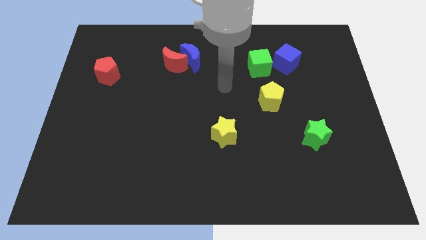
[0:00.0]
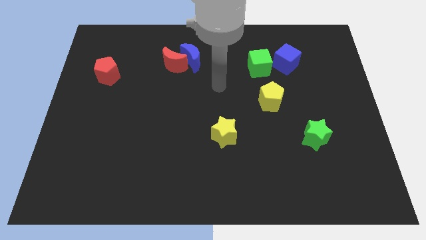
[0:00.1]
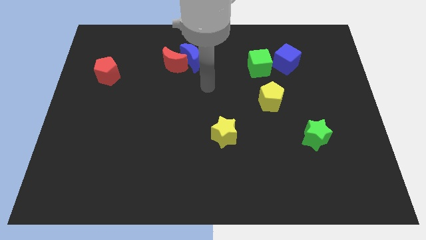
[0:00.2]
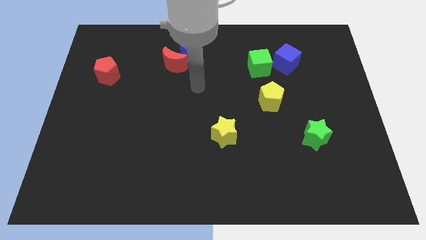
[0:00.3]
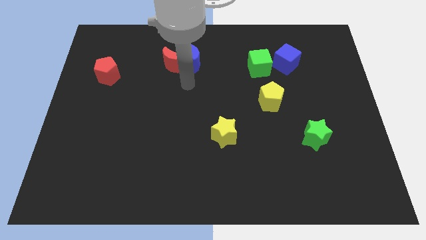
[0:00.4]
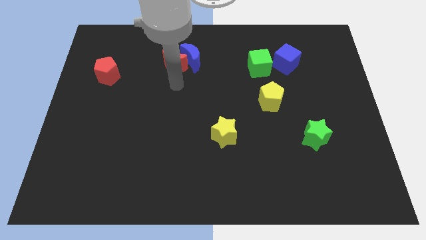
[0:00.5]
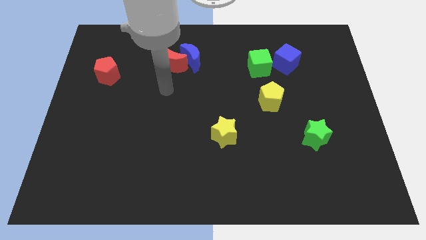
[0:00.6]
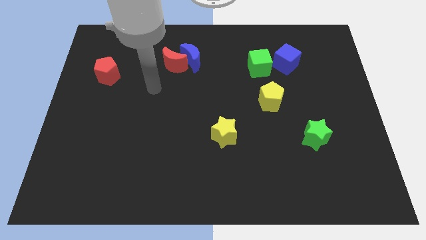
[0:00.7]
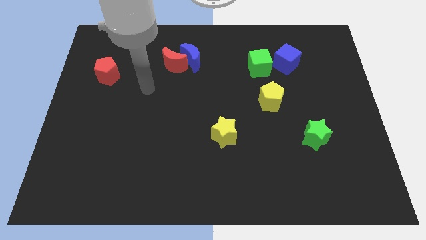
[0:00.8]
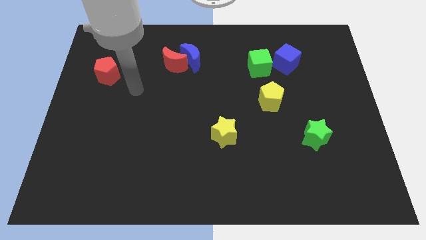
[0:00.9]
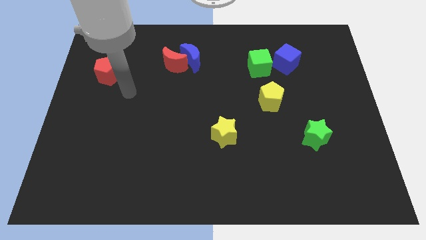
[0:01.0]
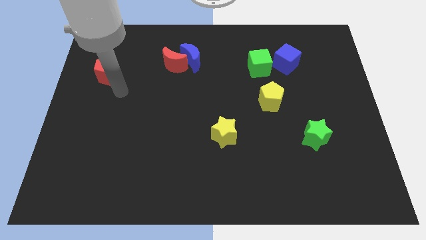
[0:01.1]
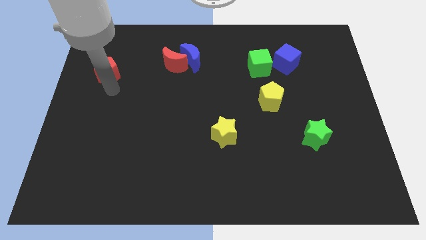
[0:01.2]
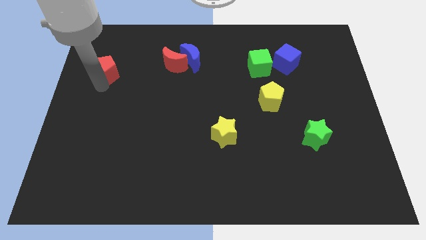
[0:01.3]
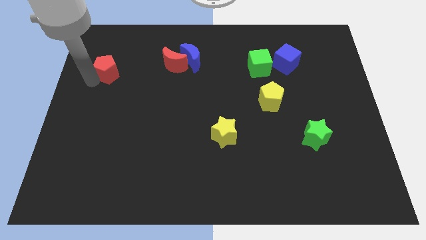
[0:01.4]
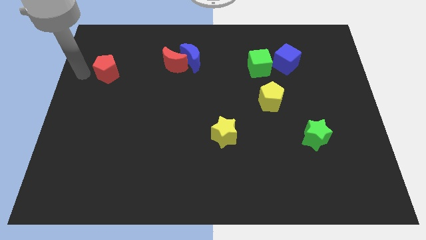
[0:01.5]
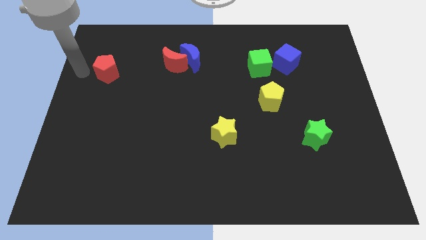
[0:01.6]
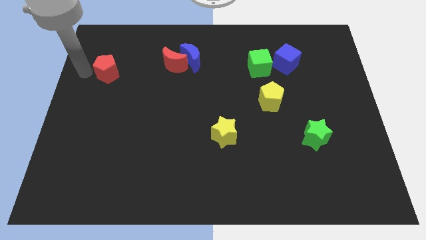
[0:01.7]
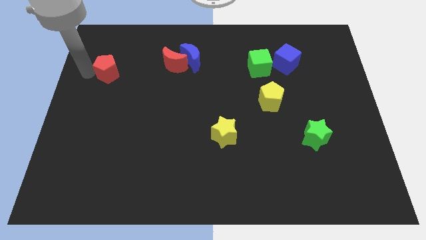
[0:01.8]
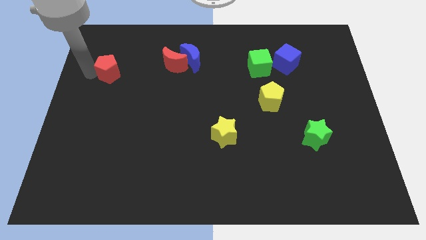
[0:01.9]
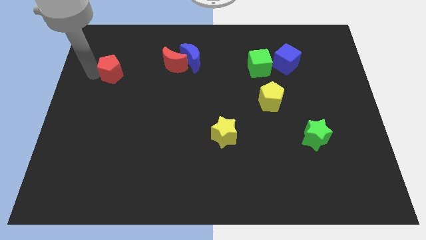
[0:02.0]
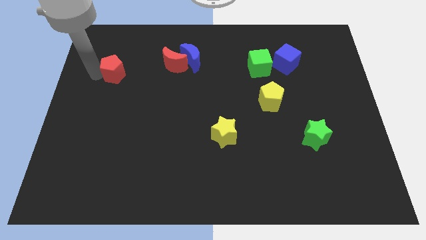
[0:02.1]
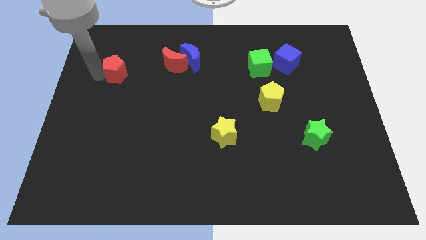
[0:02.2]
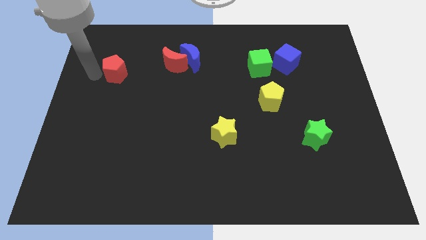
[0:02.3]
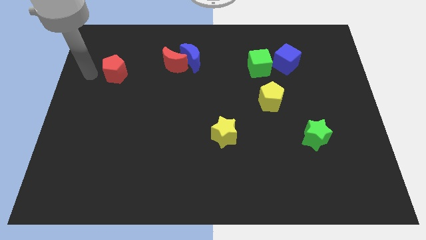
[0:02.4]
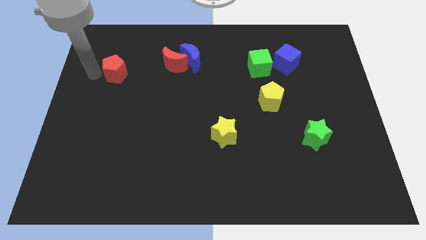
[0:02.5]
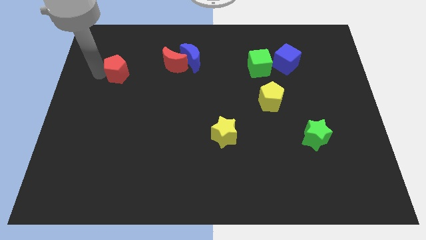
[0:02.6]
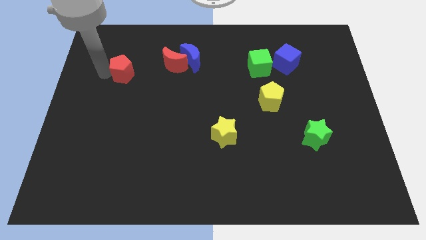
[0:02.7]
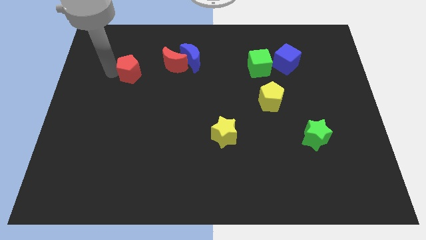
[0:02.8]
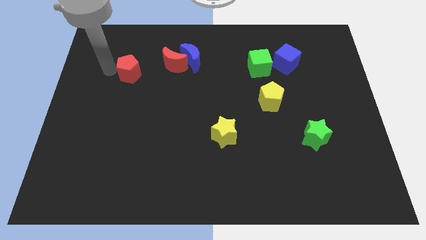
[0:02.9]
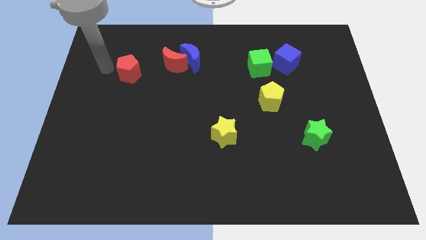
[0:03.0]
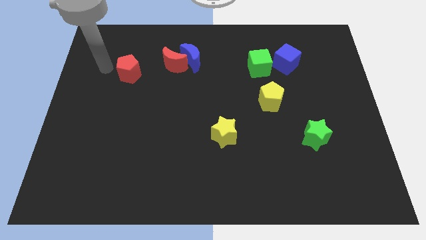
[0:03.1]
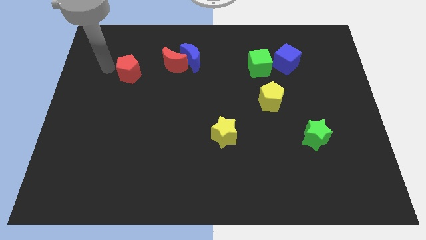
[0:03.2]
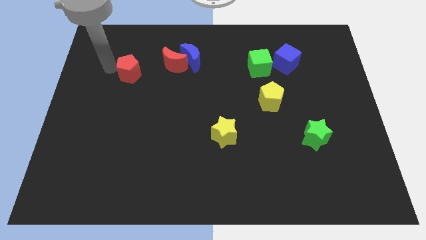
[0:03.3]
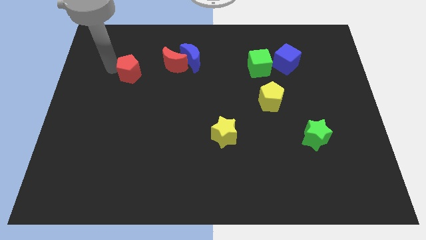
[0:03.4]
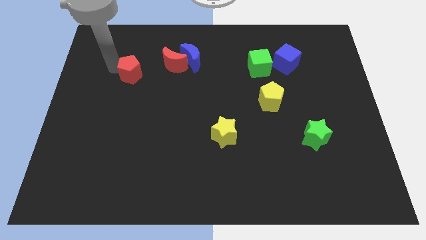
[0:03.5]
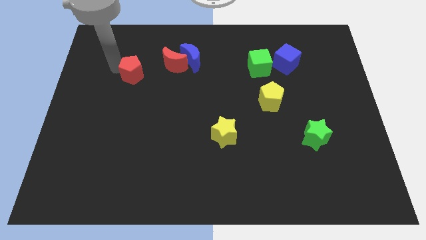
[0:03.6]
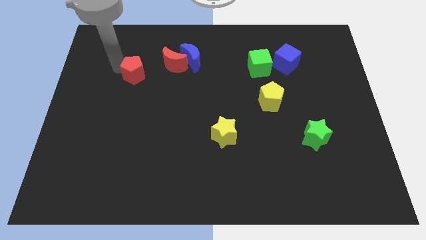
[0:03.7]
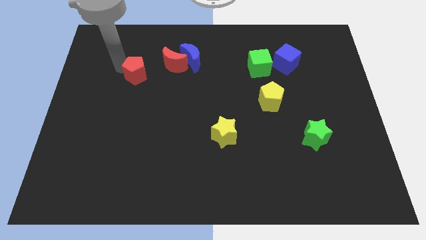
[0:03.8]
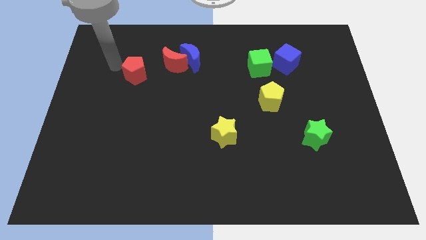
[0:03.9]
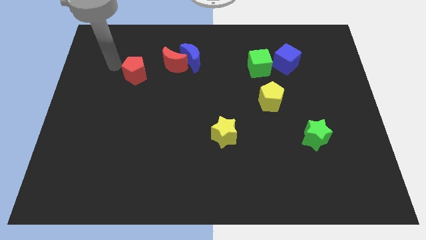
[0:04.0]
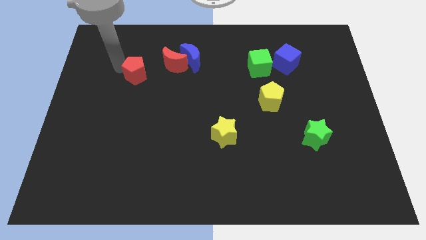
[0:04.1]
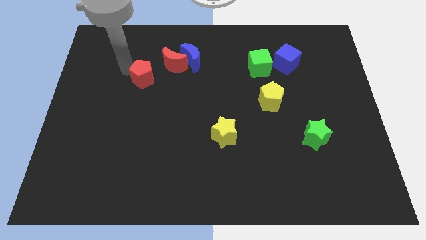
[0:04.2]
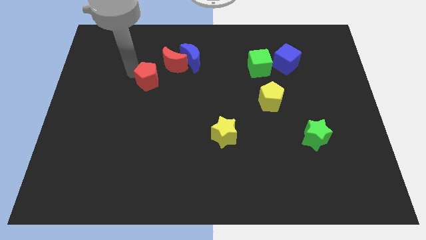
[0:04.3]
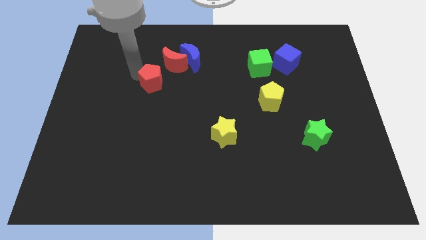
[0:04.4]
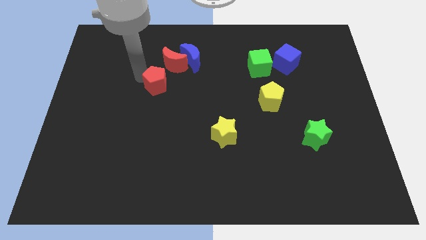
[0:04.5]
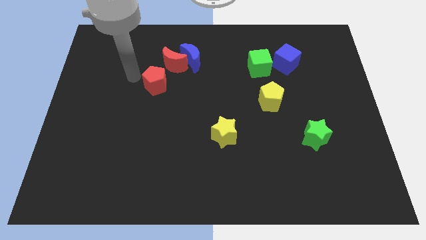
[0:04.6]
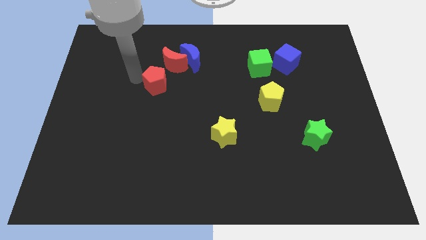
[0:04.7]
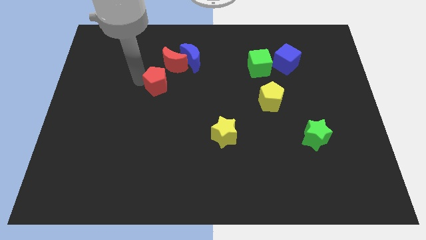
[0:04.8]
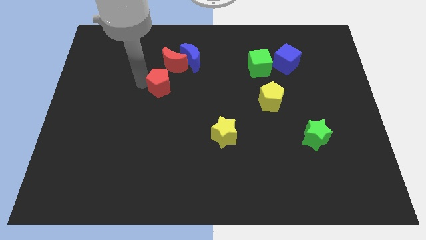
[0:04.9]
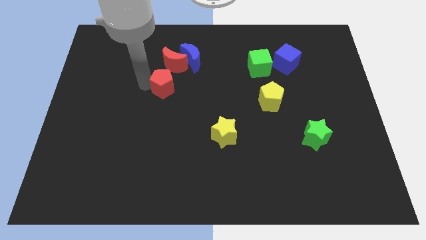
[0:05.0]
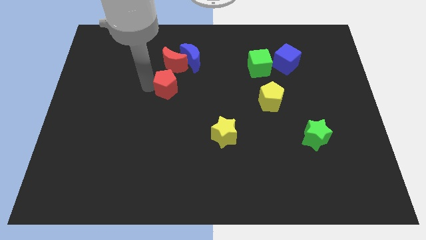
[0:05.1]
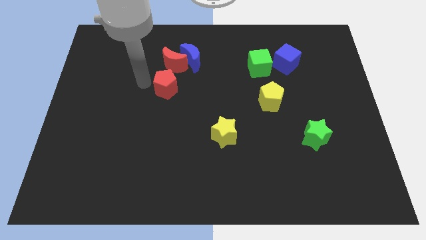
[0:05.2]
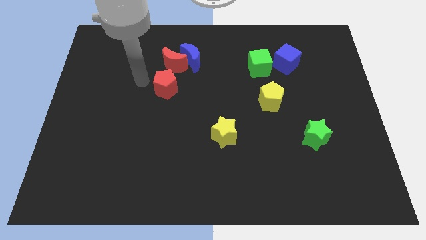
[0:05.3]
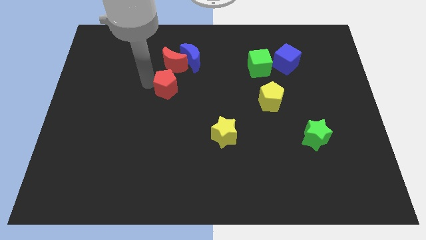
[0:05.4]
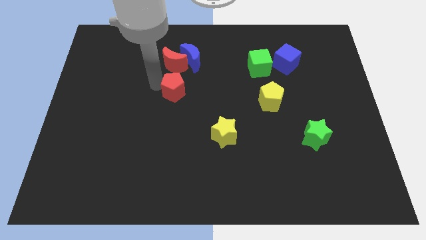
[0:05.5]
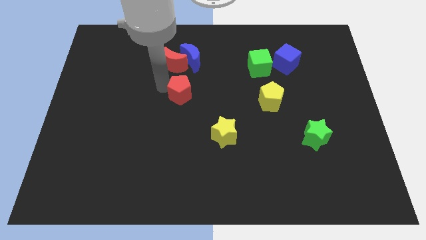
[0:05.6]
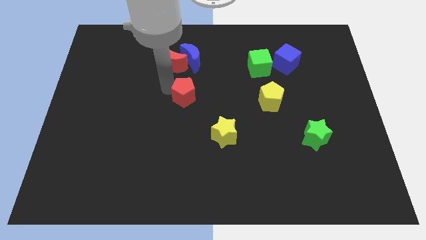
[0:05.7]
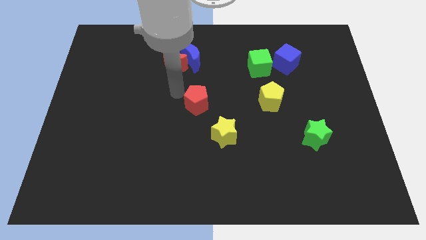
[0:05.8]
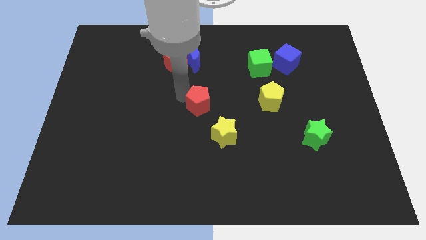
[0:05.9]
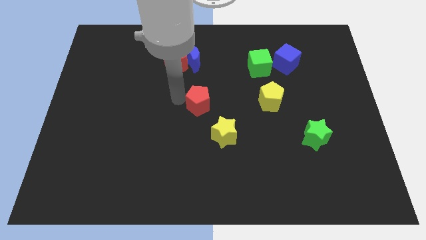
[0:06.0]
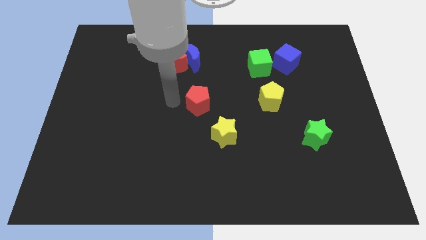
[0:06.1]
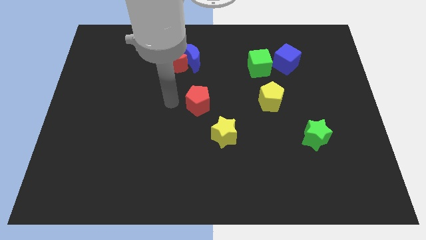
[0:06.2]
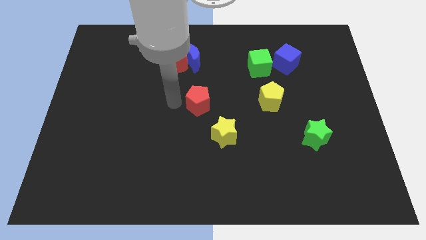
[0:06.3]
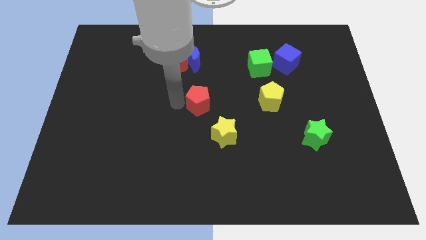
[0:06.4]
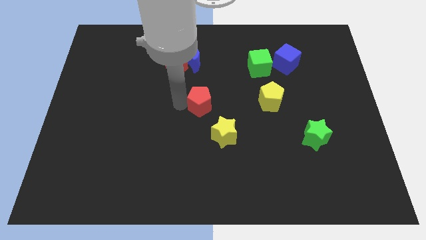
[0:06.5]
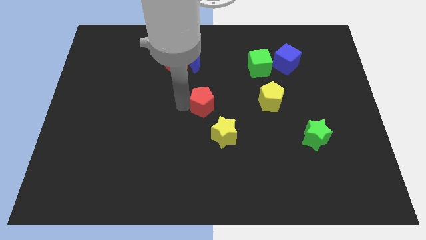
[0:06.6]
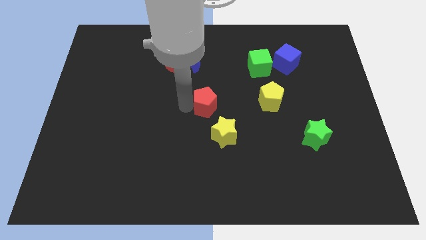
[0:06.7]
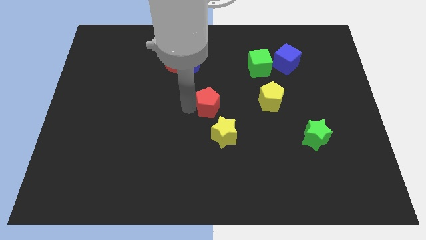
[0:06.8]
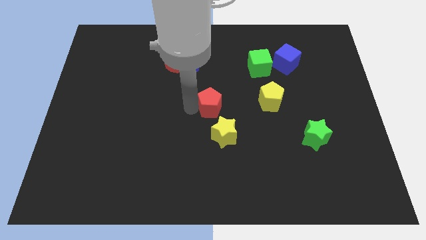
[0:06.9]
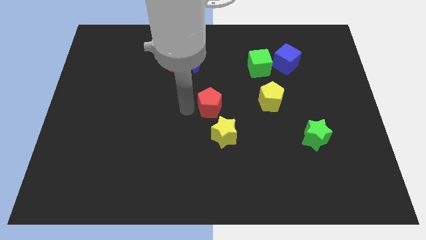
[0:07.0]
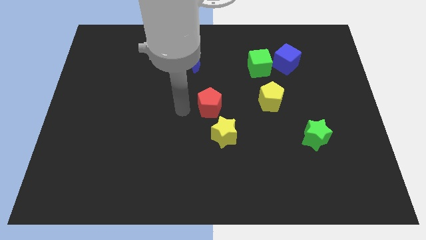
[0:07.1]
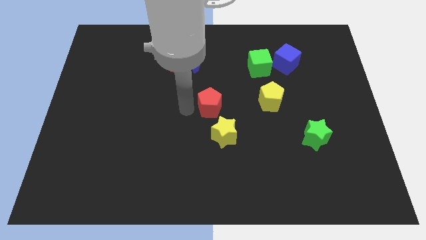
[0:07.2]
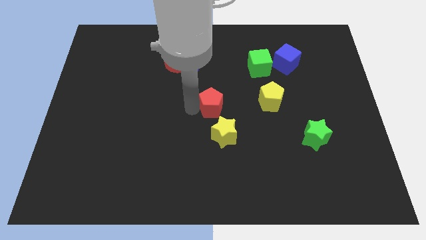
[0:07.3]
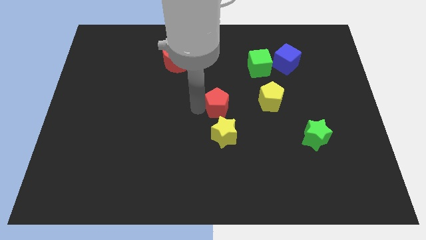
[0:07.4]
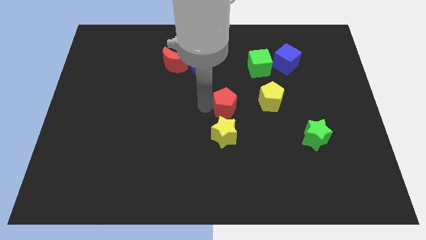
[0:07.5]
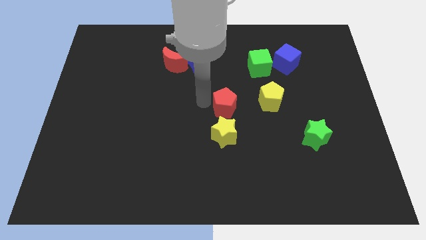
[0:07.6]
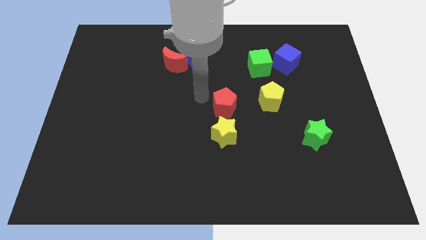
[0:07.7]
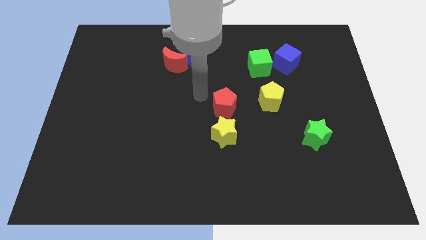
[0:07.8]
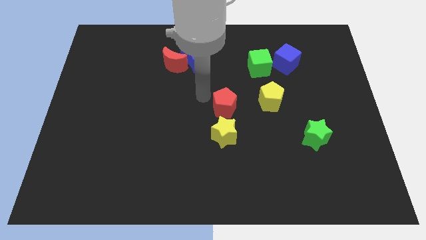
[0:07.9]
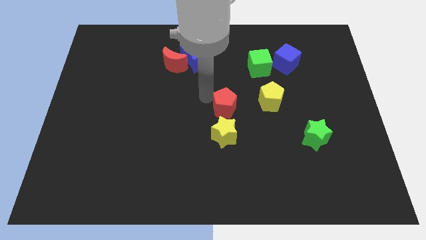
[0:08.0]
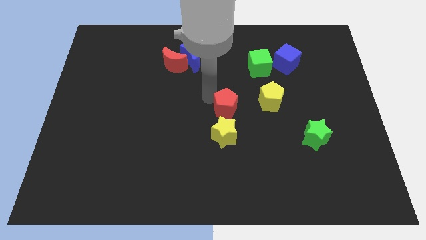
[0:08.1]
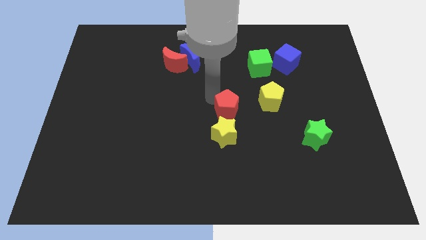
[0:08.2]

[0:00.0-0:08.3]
put the red pentagon diagonally up and to the right of the yellow star
